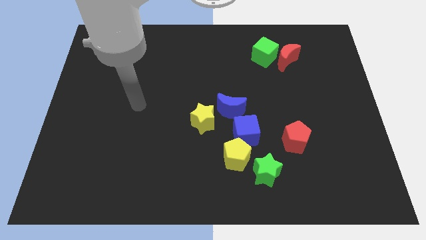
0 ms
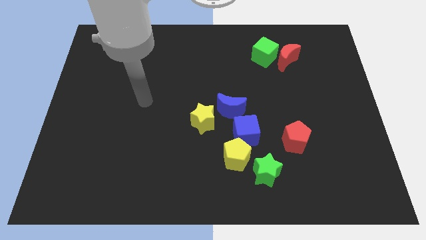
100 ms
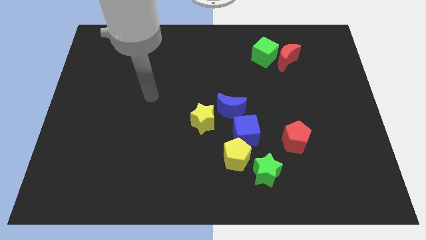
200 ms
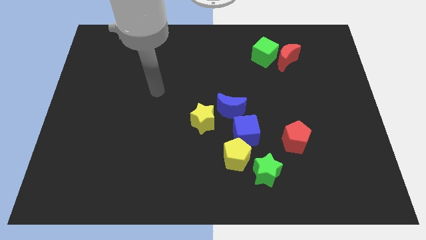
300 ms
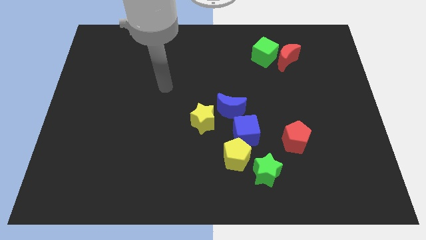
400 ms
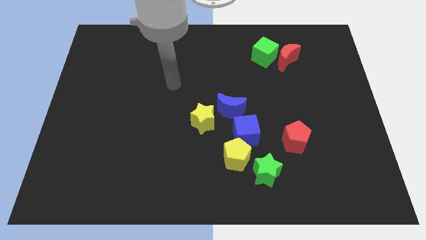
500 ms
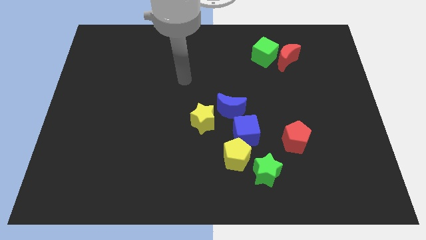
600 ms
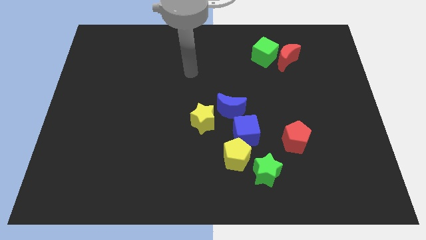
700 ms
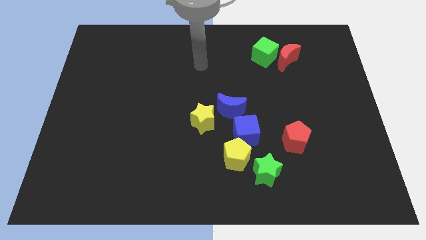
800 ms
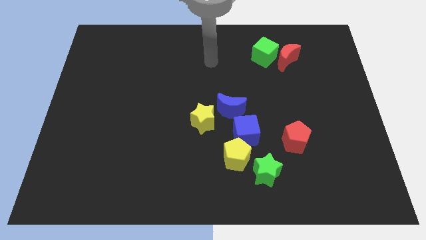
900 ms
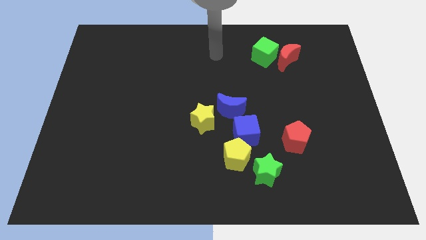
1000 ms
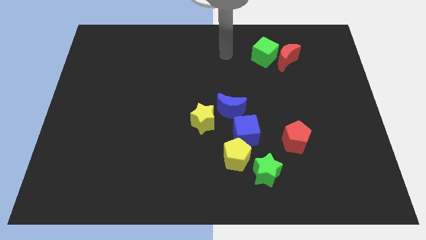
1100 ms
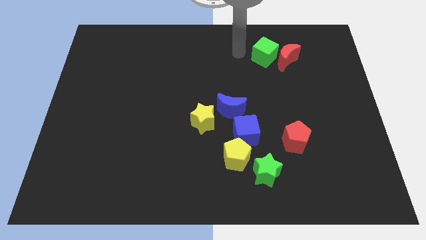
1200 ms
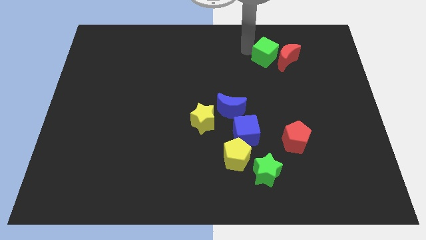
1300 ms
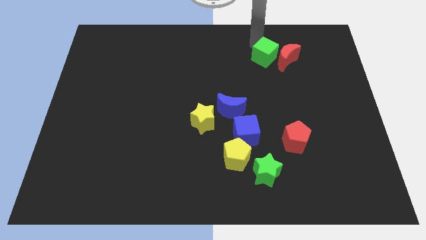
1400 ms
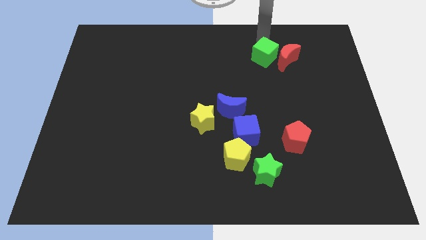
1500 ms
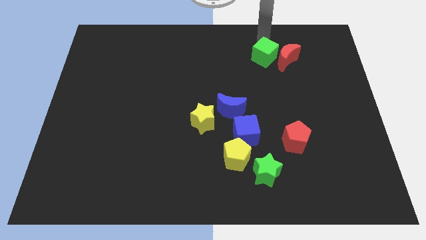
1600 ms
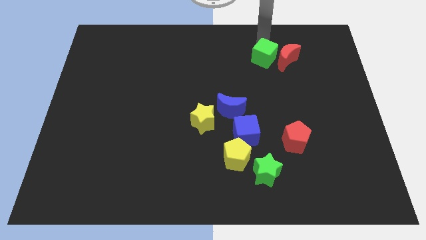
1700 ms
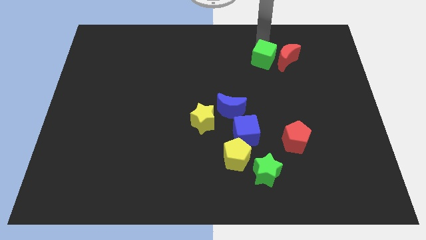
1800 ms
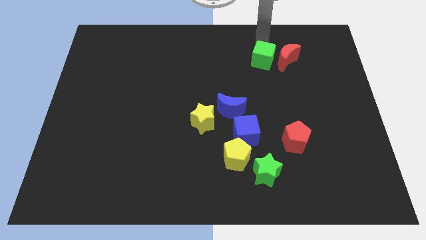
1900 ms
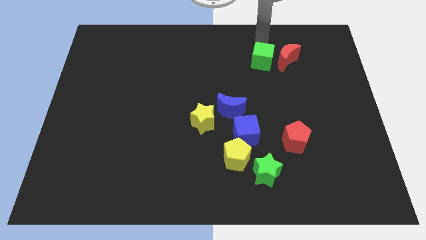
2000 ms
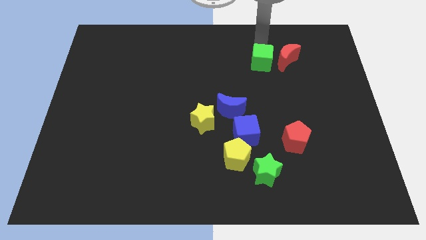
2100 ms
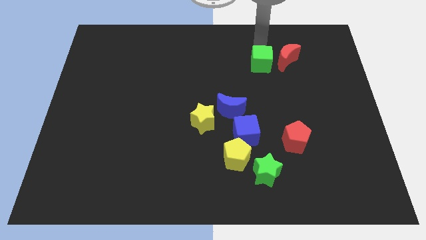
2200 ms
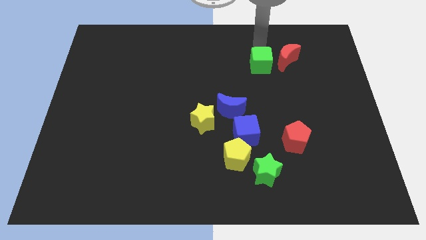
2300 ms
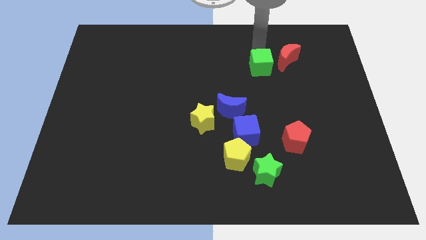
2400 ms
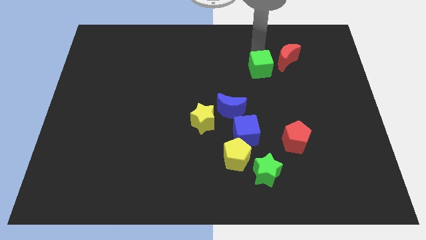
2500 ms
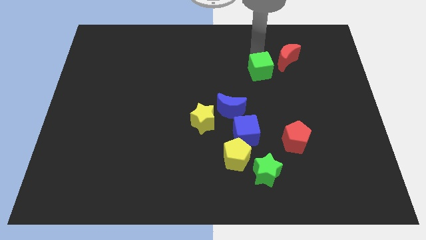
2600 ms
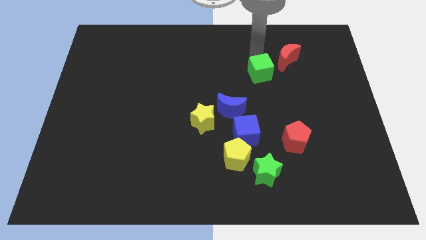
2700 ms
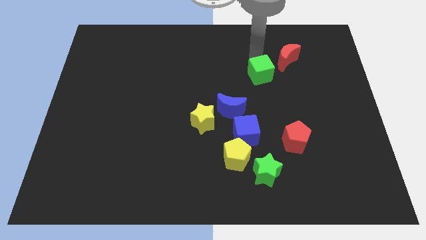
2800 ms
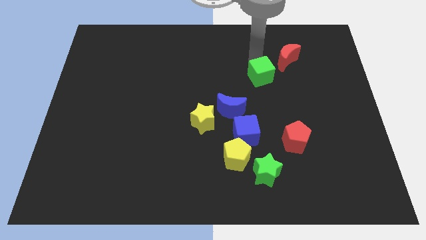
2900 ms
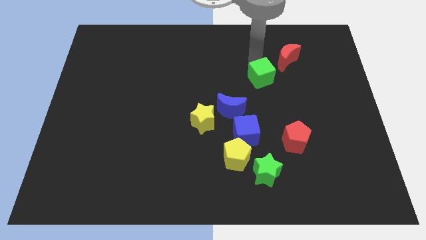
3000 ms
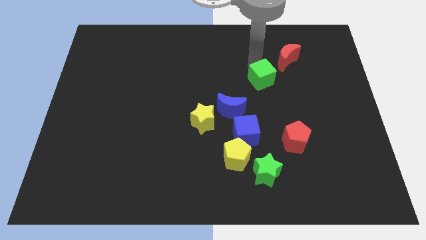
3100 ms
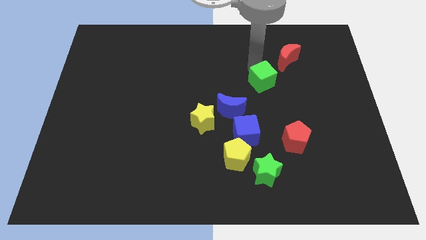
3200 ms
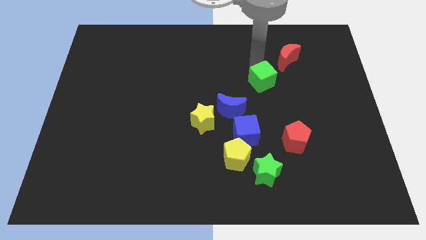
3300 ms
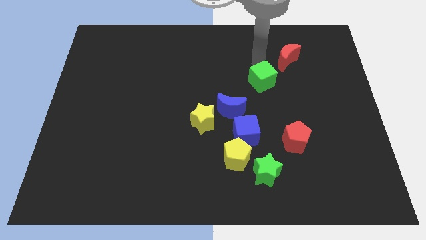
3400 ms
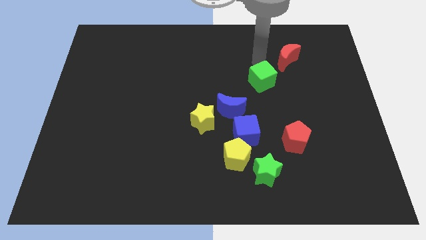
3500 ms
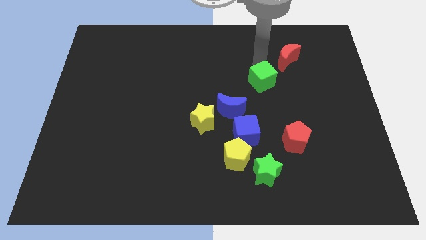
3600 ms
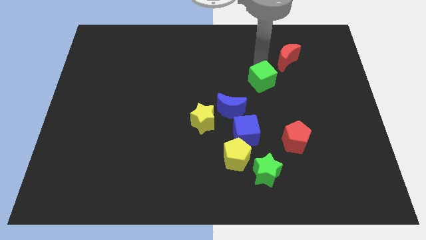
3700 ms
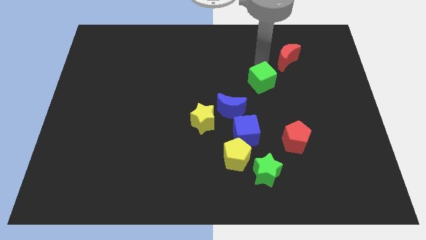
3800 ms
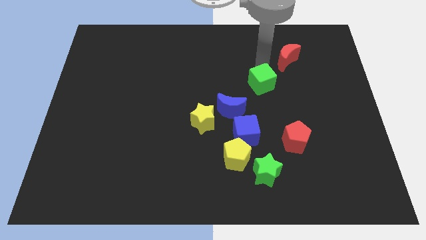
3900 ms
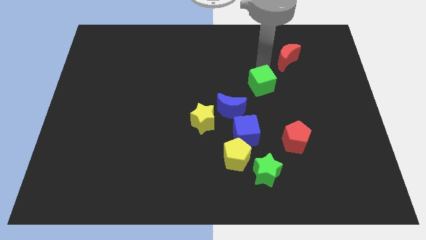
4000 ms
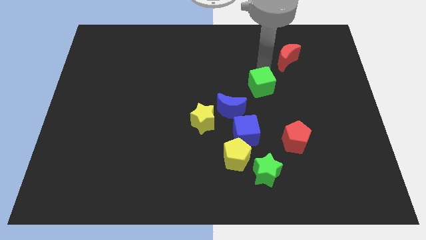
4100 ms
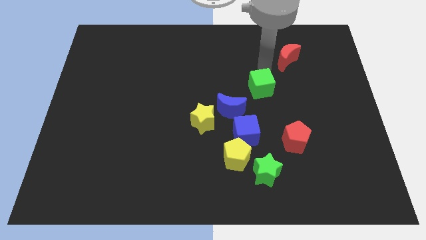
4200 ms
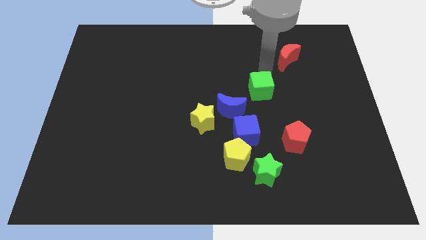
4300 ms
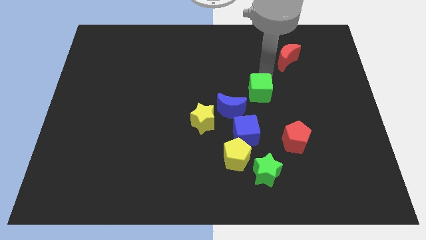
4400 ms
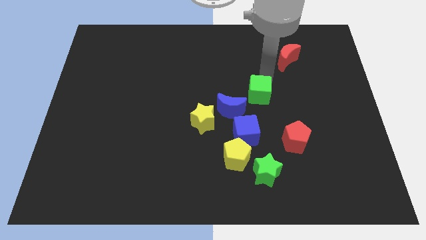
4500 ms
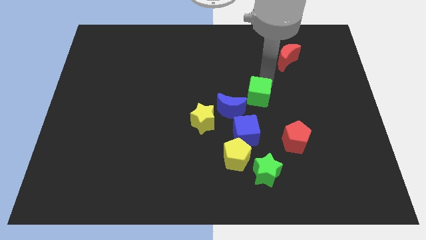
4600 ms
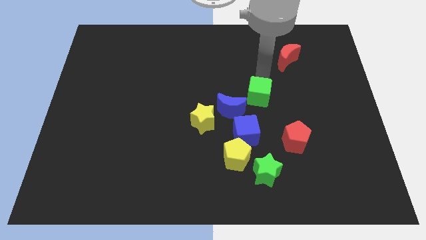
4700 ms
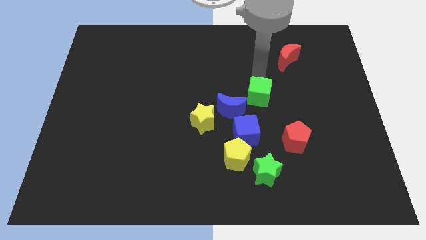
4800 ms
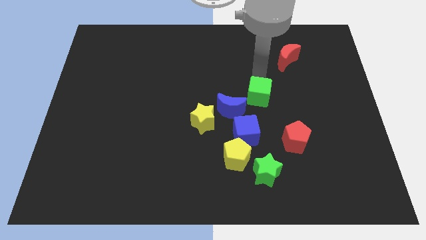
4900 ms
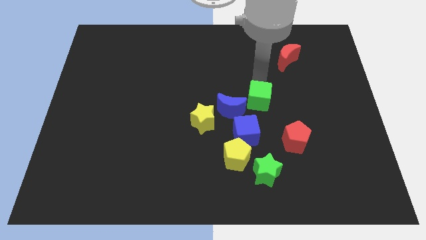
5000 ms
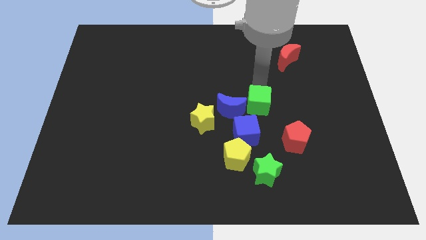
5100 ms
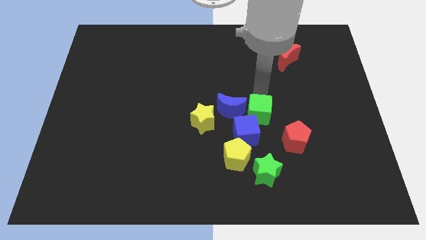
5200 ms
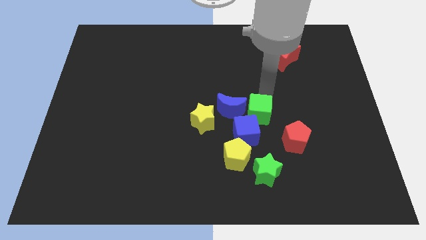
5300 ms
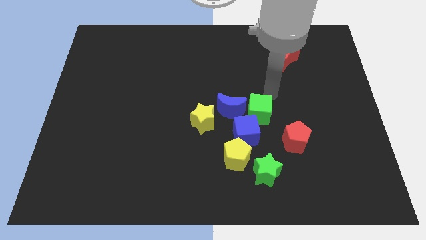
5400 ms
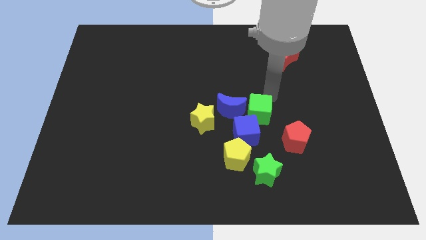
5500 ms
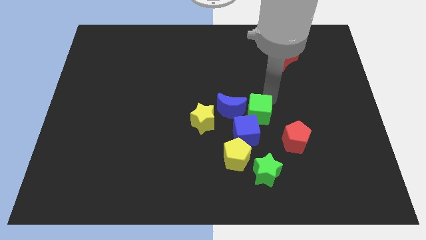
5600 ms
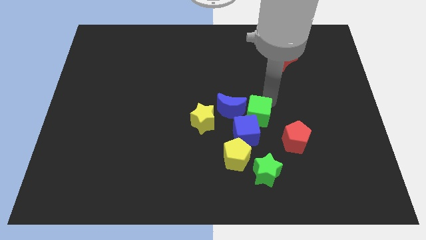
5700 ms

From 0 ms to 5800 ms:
push the green cube towards the blue cube

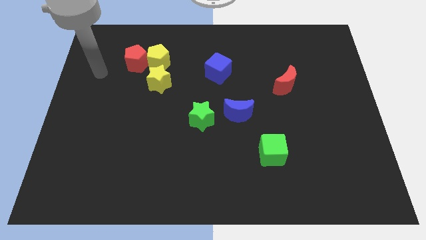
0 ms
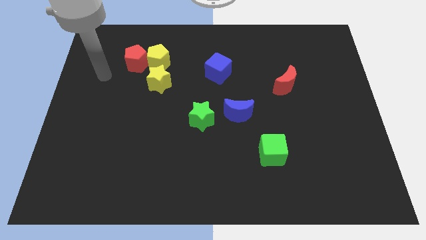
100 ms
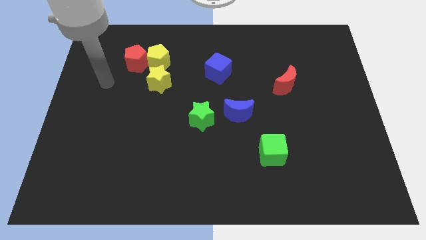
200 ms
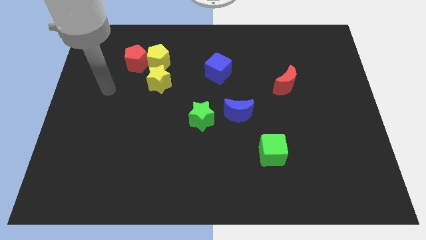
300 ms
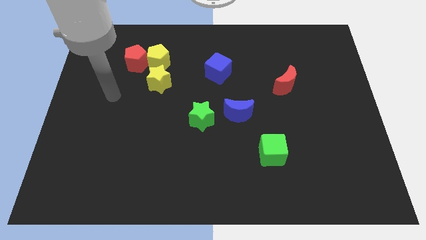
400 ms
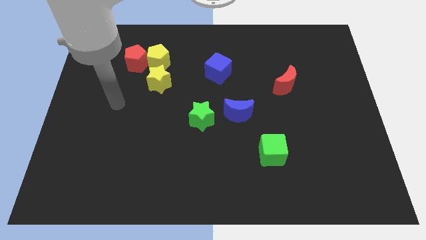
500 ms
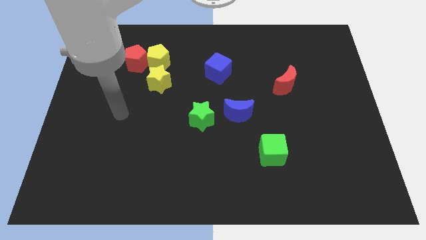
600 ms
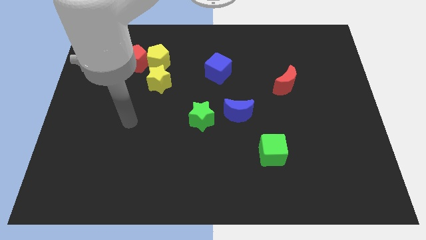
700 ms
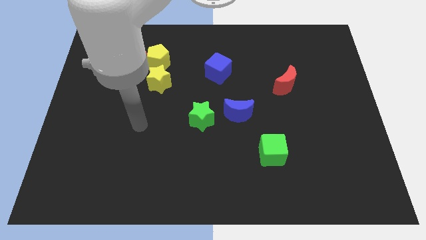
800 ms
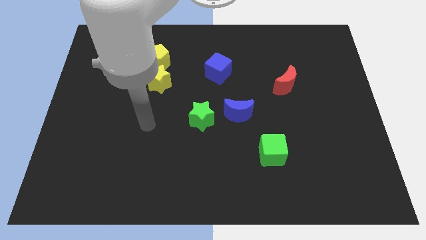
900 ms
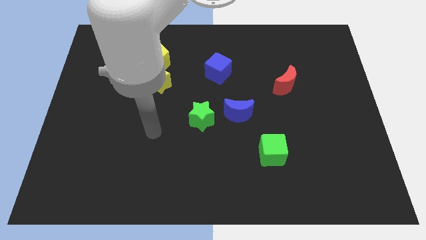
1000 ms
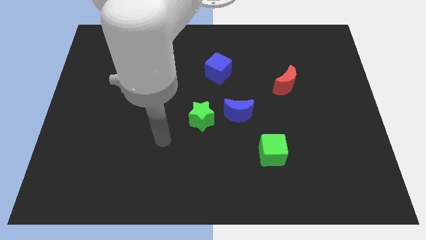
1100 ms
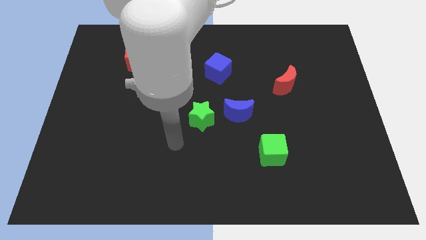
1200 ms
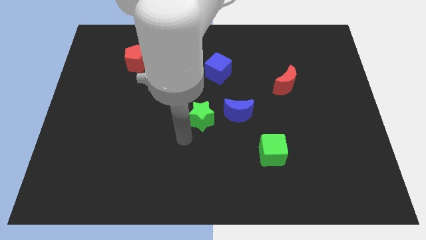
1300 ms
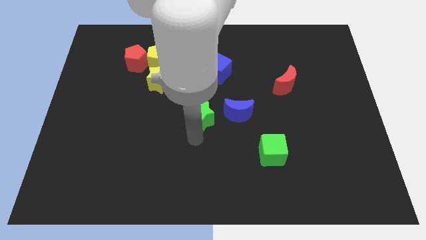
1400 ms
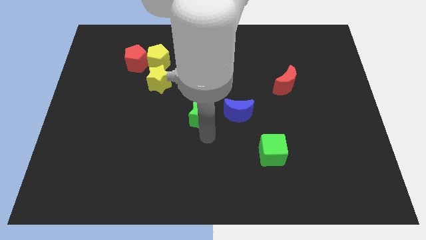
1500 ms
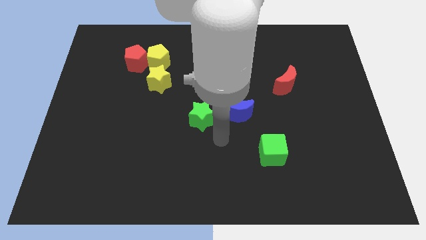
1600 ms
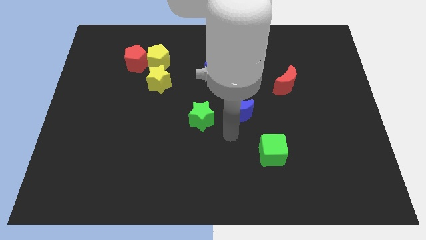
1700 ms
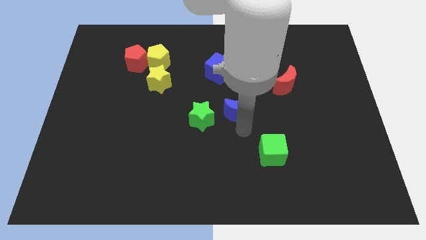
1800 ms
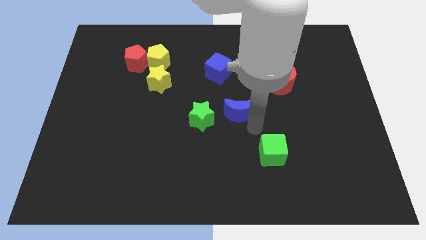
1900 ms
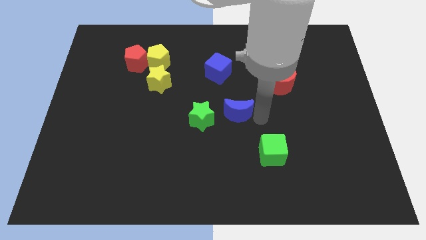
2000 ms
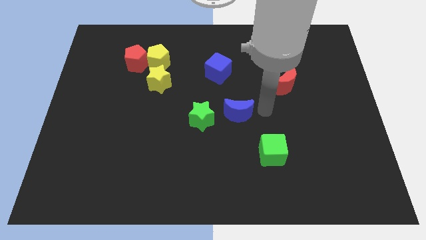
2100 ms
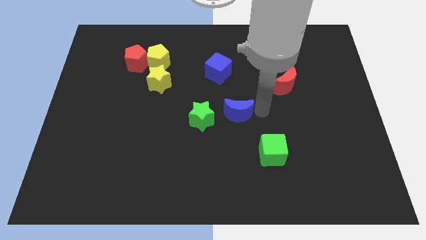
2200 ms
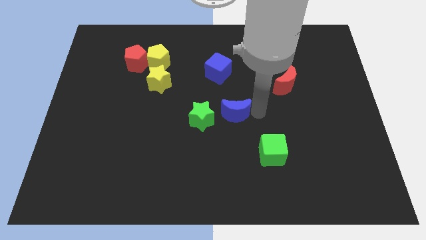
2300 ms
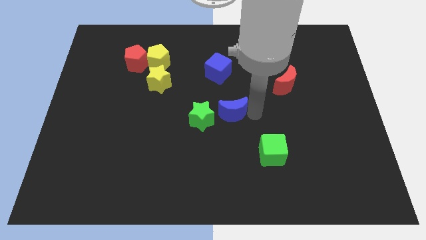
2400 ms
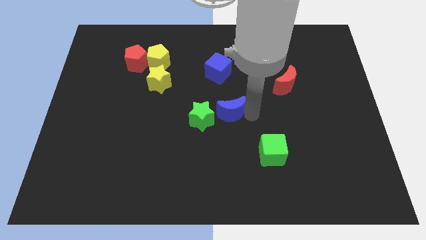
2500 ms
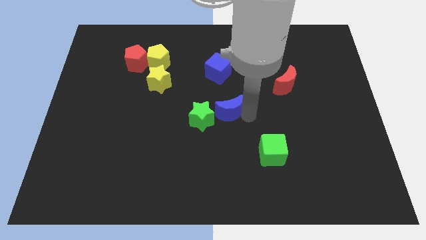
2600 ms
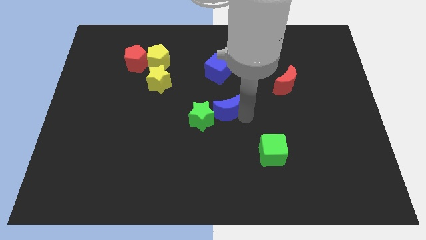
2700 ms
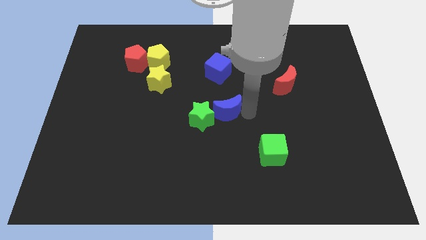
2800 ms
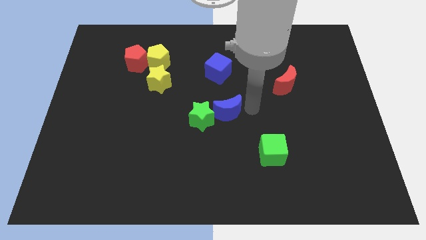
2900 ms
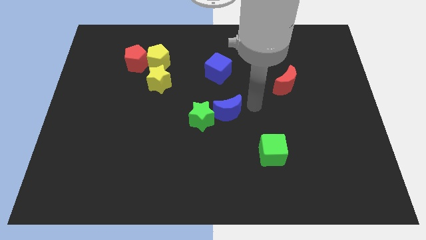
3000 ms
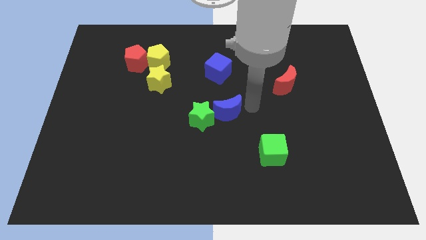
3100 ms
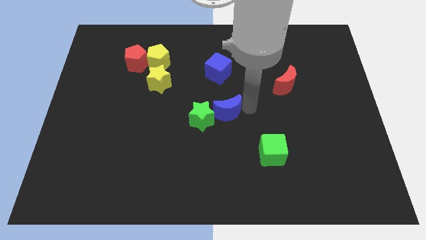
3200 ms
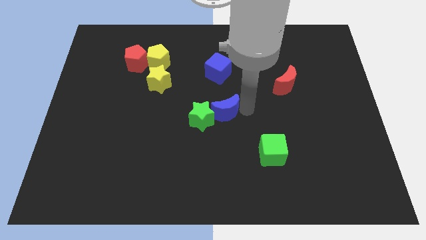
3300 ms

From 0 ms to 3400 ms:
slide the blue moon next to the green star
